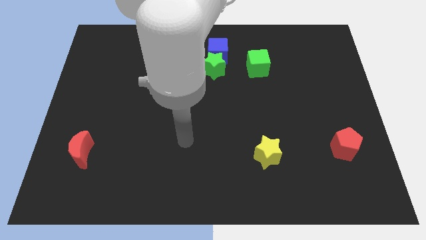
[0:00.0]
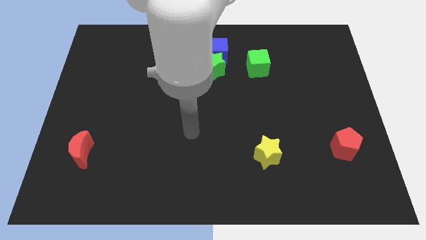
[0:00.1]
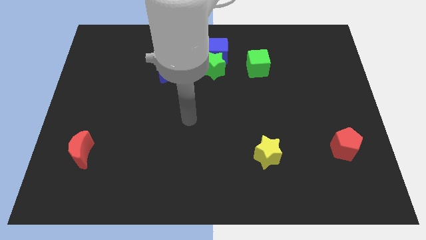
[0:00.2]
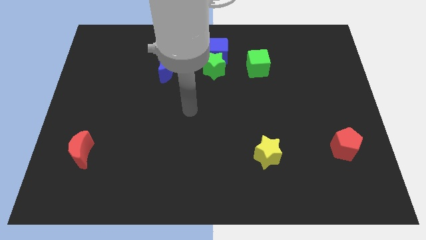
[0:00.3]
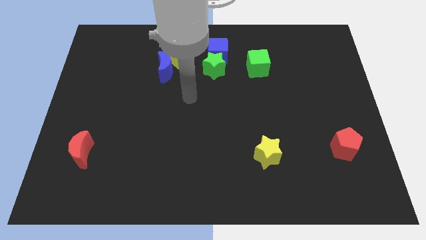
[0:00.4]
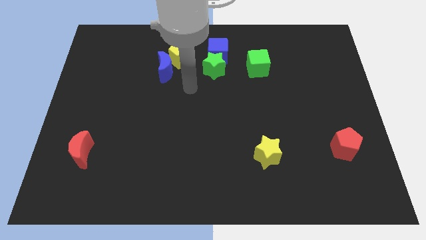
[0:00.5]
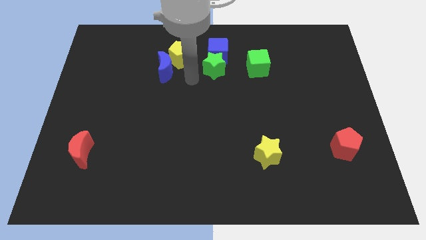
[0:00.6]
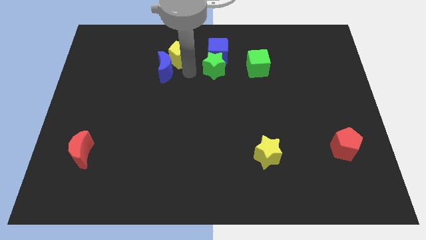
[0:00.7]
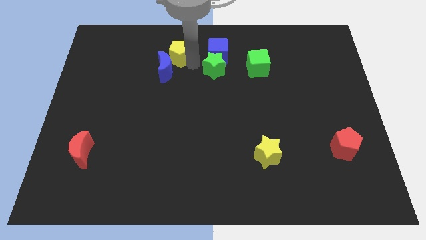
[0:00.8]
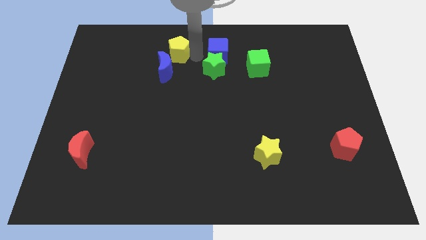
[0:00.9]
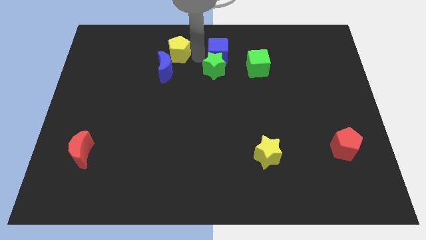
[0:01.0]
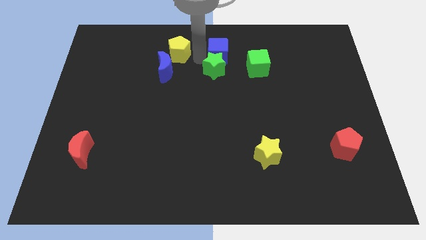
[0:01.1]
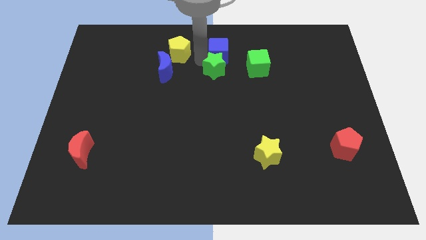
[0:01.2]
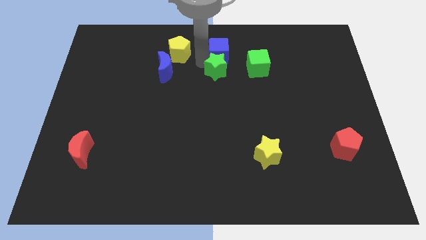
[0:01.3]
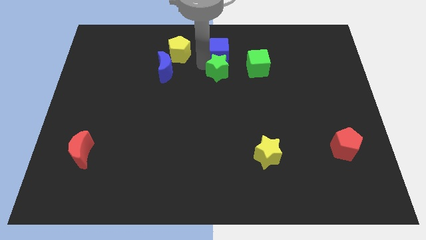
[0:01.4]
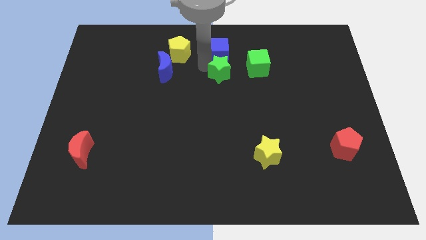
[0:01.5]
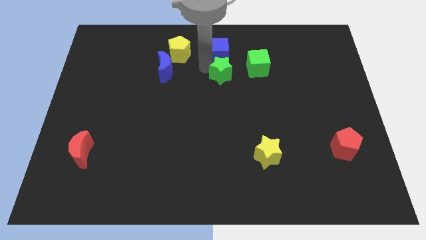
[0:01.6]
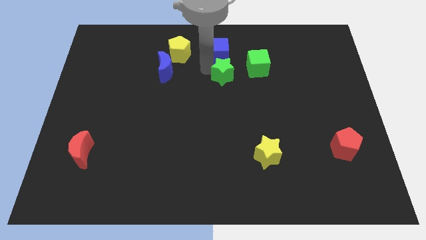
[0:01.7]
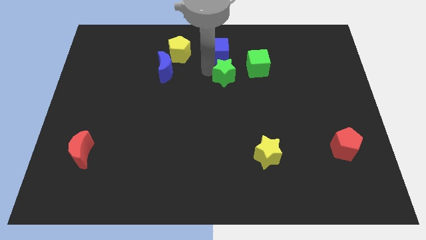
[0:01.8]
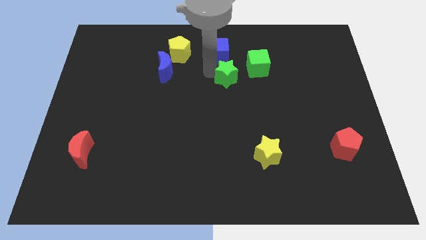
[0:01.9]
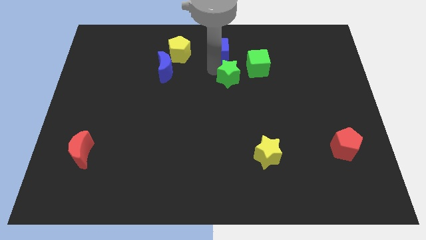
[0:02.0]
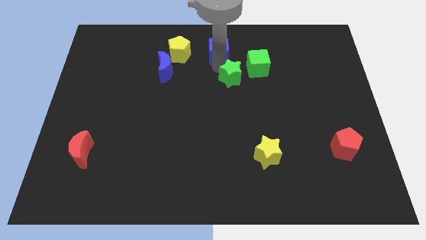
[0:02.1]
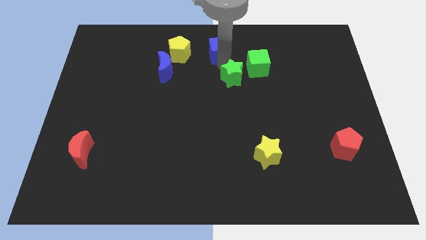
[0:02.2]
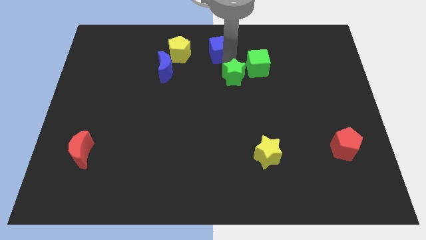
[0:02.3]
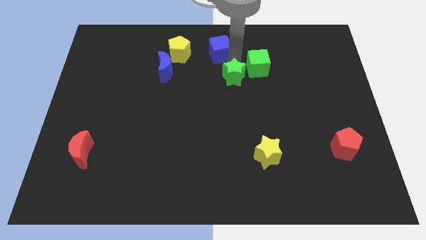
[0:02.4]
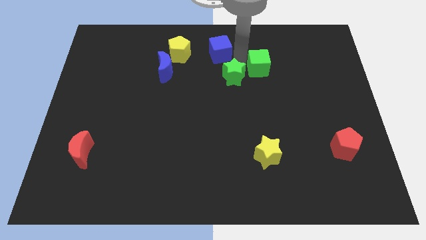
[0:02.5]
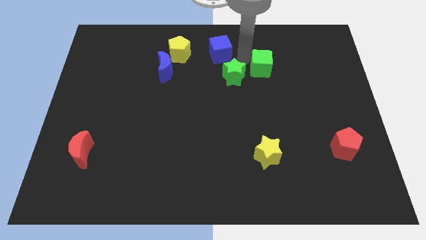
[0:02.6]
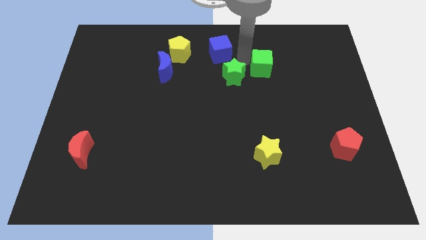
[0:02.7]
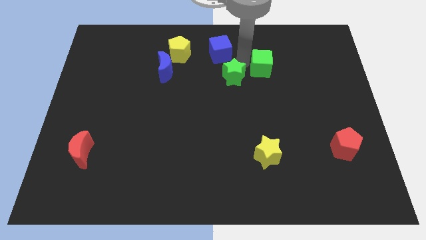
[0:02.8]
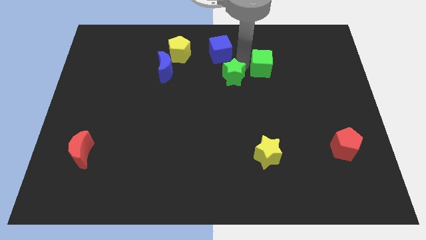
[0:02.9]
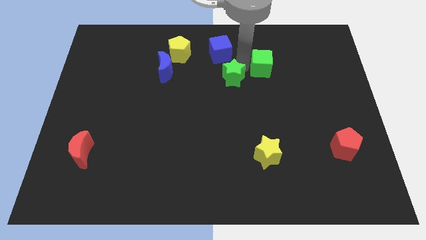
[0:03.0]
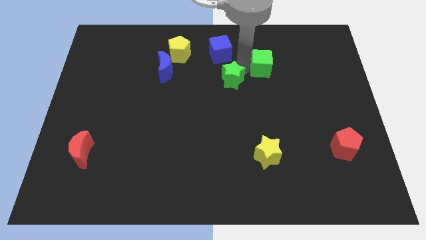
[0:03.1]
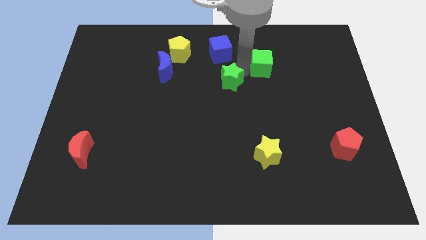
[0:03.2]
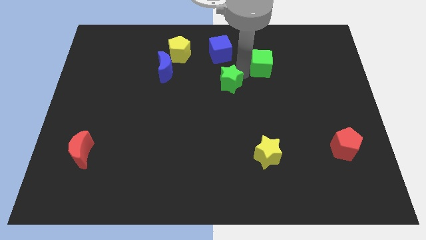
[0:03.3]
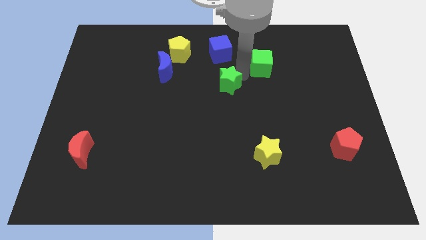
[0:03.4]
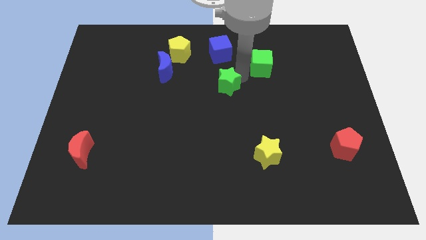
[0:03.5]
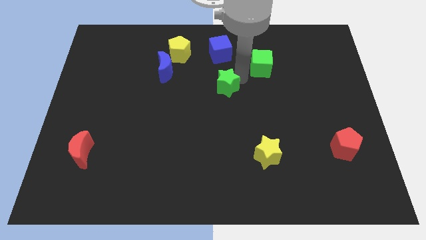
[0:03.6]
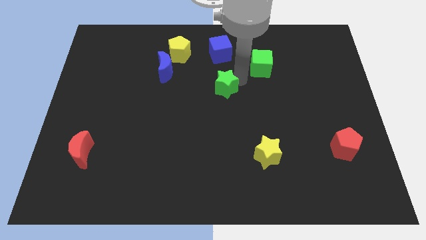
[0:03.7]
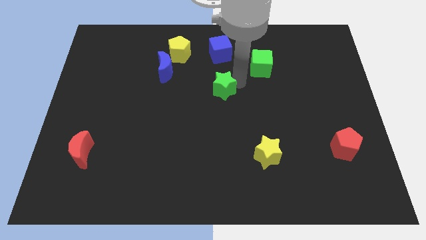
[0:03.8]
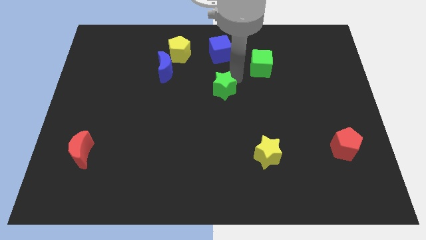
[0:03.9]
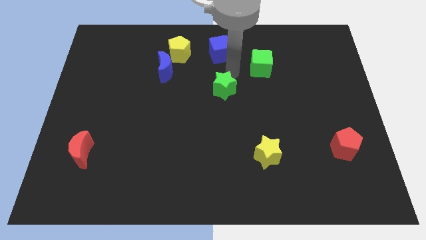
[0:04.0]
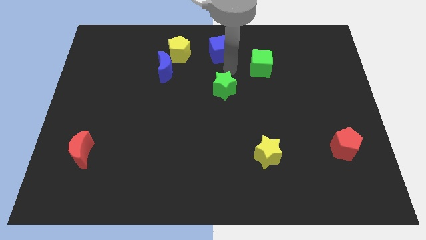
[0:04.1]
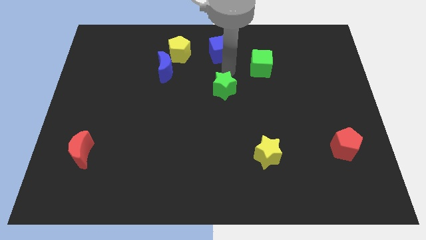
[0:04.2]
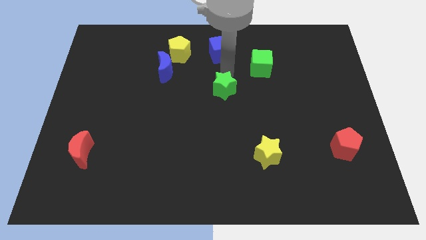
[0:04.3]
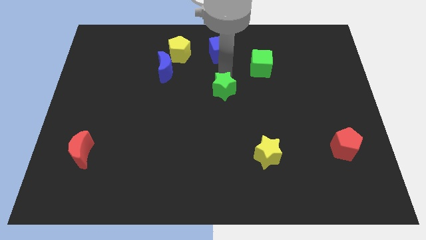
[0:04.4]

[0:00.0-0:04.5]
slide the green star down somewhat

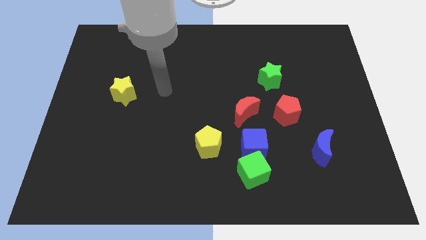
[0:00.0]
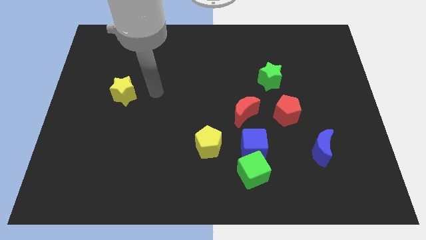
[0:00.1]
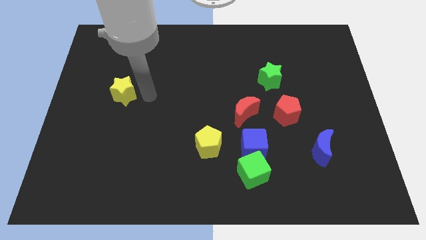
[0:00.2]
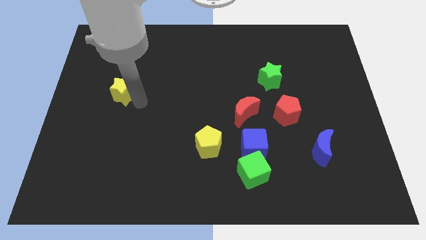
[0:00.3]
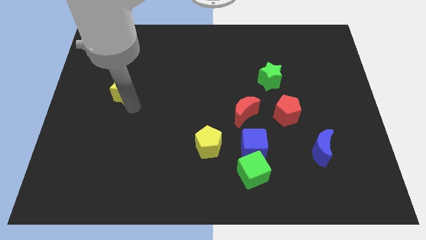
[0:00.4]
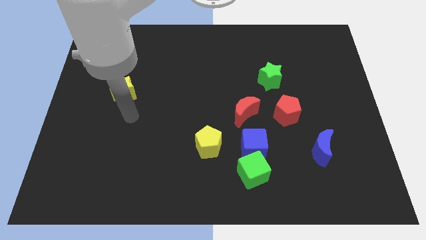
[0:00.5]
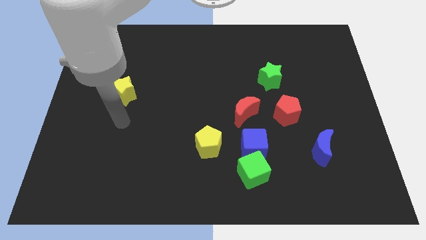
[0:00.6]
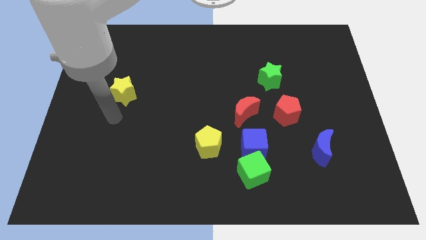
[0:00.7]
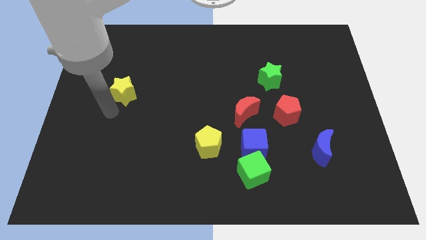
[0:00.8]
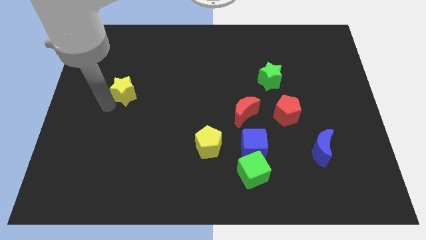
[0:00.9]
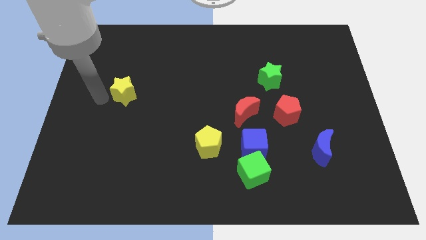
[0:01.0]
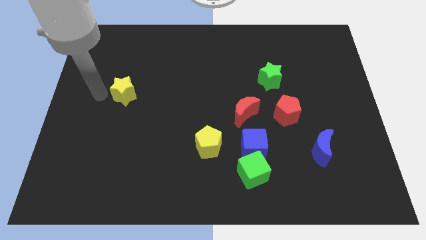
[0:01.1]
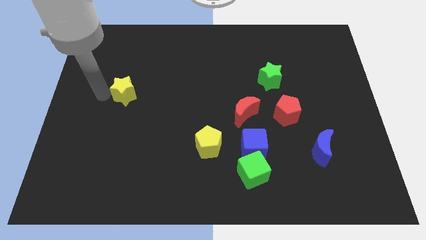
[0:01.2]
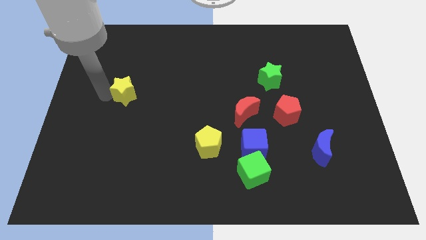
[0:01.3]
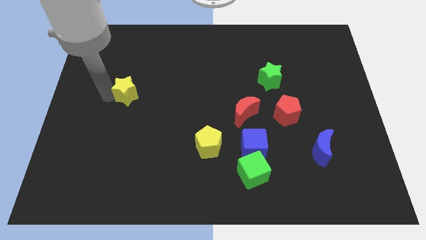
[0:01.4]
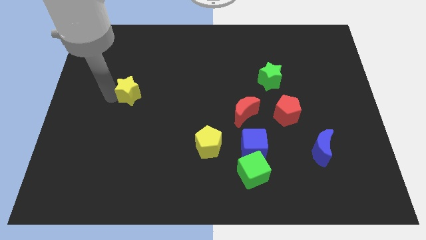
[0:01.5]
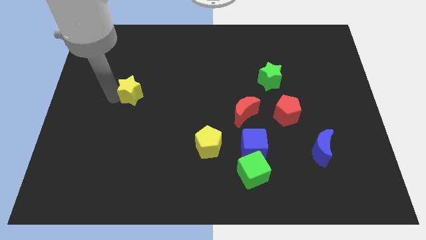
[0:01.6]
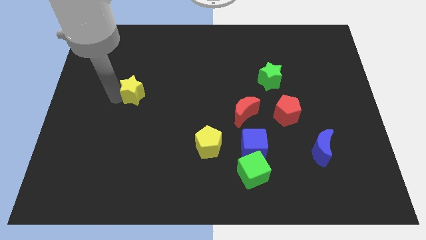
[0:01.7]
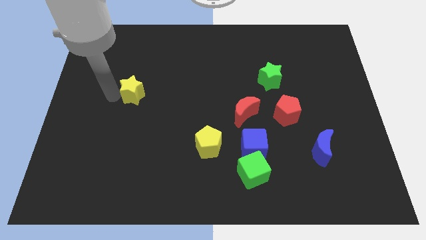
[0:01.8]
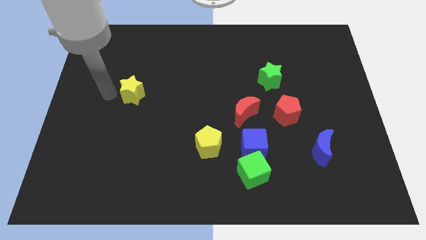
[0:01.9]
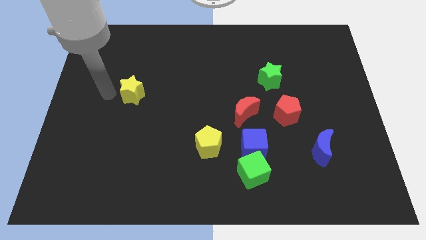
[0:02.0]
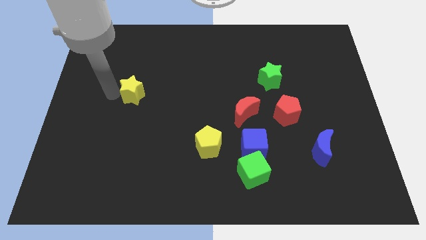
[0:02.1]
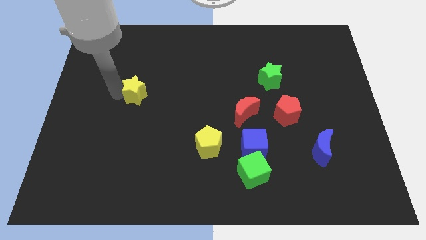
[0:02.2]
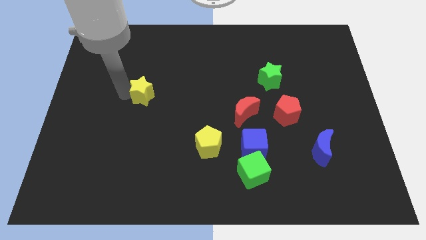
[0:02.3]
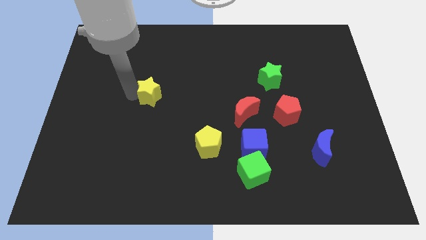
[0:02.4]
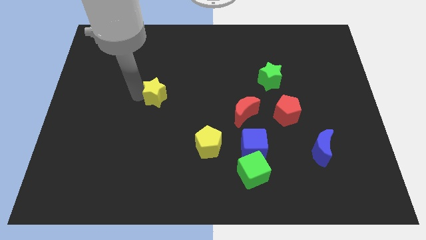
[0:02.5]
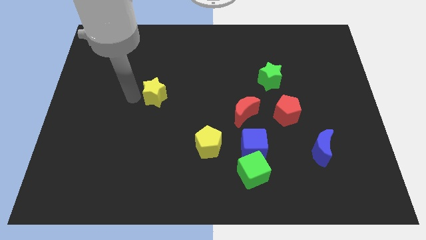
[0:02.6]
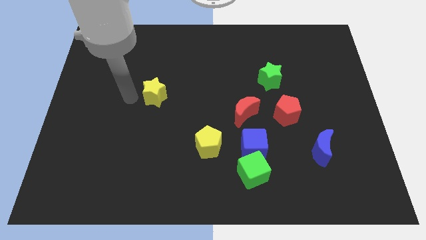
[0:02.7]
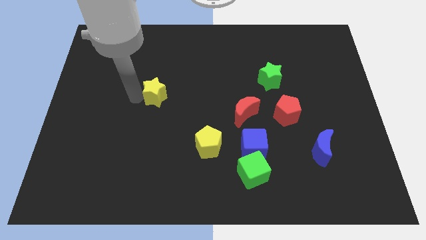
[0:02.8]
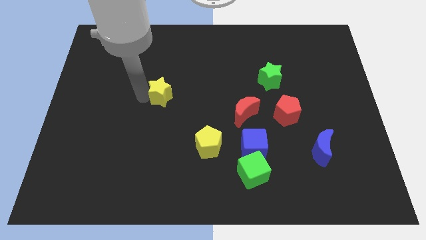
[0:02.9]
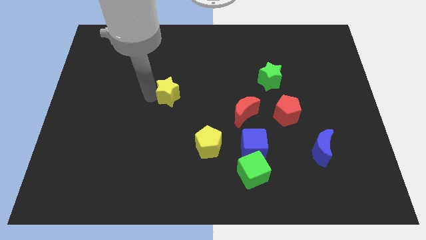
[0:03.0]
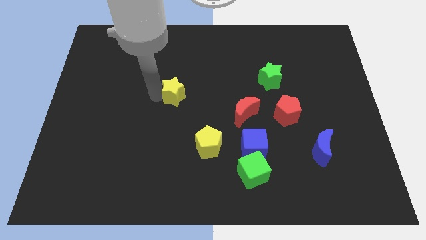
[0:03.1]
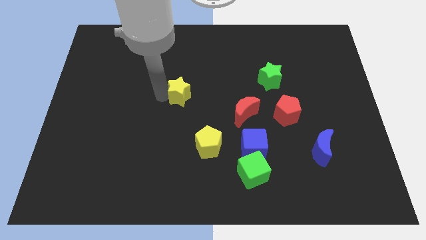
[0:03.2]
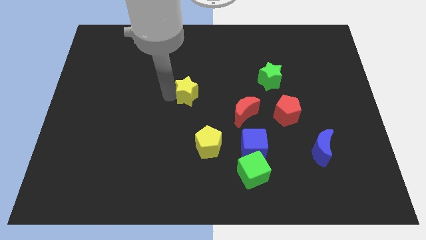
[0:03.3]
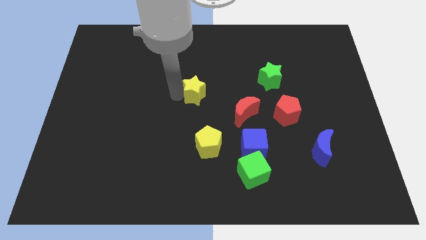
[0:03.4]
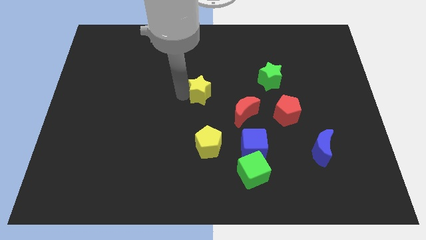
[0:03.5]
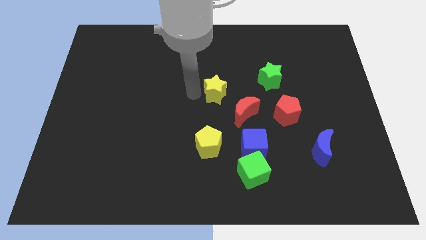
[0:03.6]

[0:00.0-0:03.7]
push the yellow star right

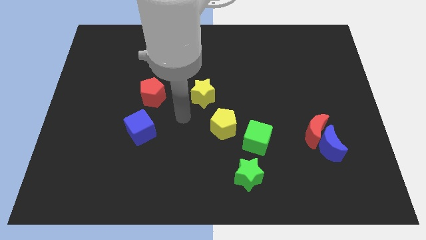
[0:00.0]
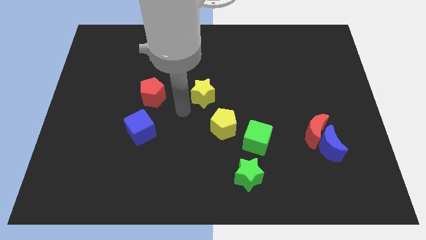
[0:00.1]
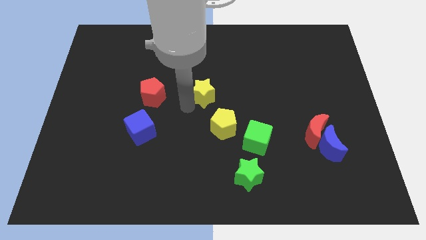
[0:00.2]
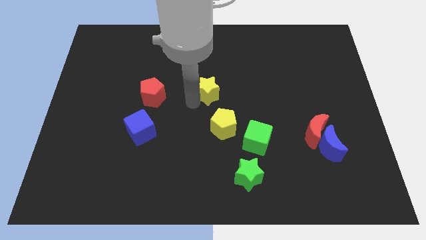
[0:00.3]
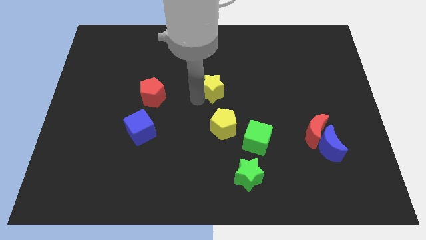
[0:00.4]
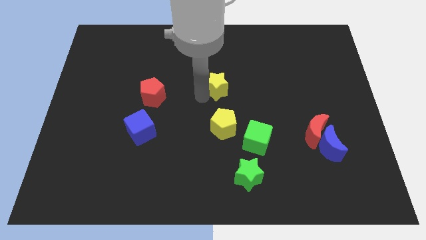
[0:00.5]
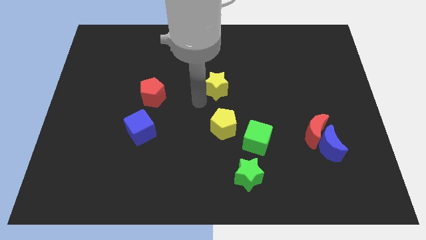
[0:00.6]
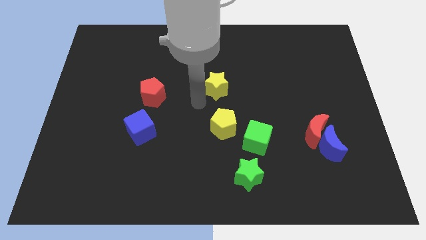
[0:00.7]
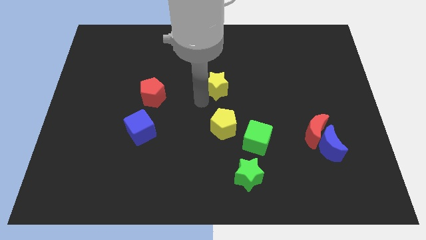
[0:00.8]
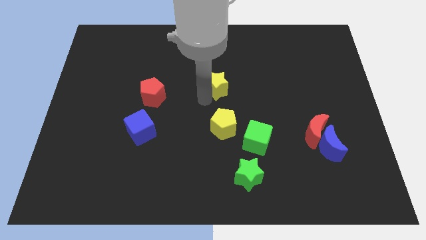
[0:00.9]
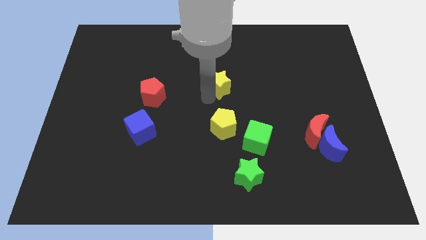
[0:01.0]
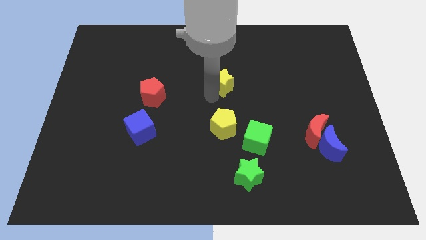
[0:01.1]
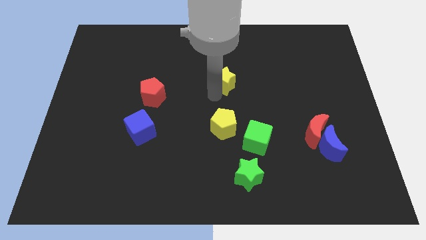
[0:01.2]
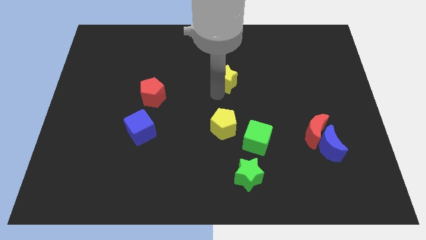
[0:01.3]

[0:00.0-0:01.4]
push the yellow star upwards and right diagonally a bit
